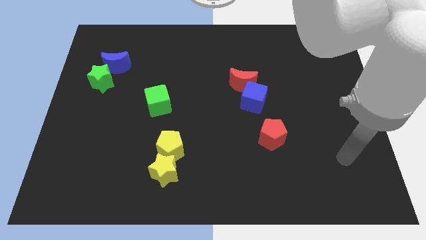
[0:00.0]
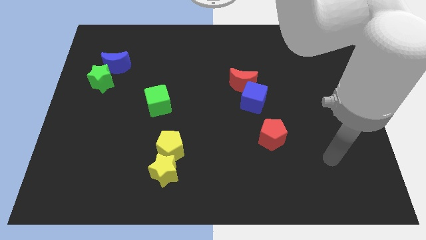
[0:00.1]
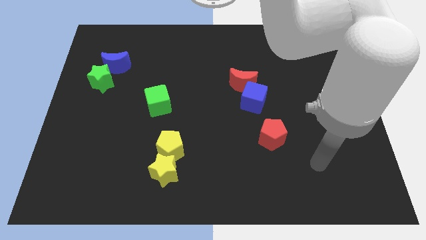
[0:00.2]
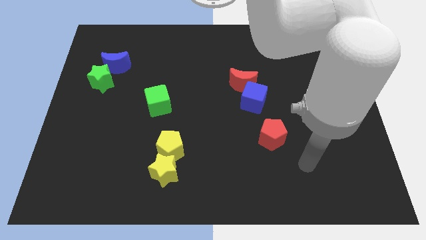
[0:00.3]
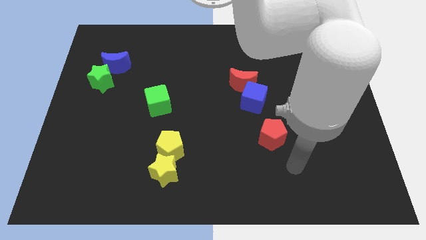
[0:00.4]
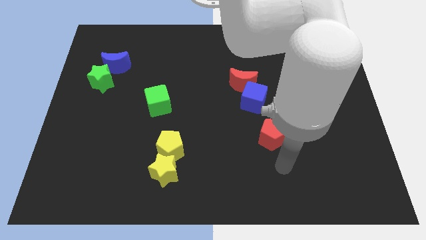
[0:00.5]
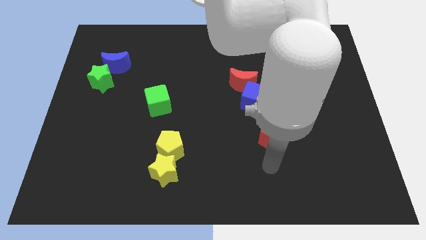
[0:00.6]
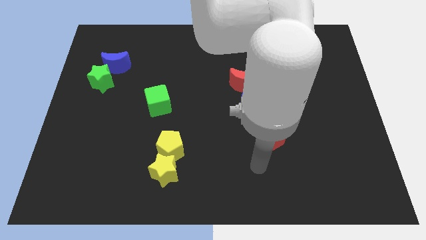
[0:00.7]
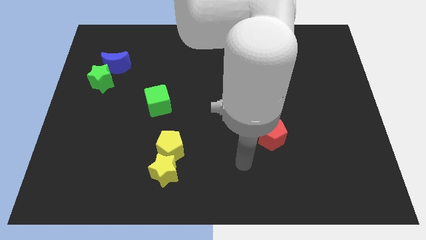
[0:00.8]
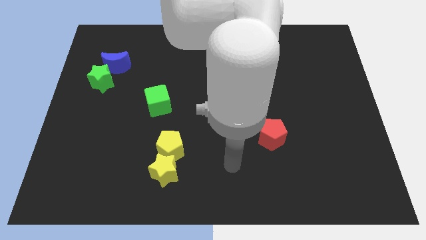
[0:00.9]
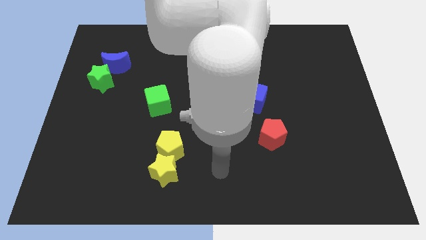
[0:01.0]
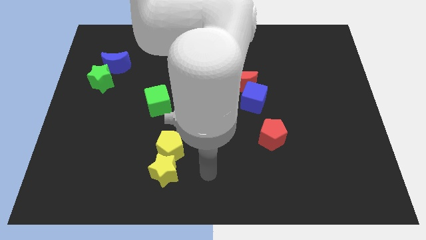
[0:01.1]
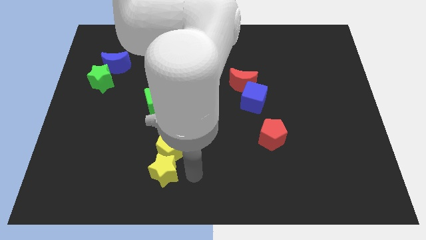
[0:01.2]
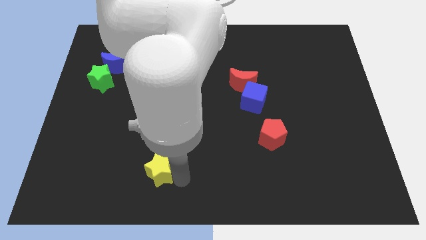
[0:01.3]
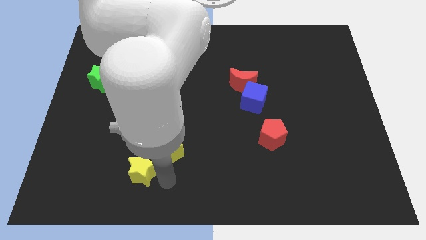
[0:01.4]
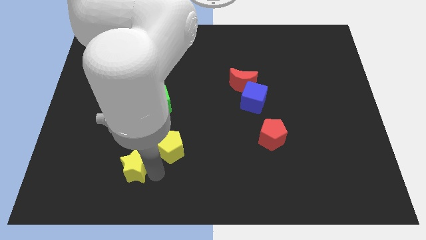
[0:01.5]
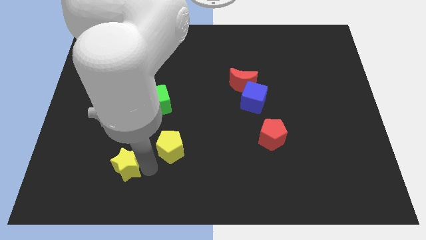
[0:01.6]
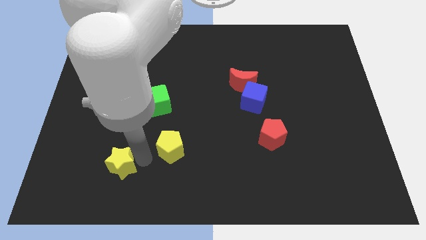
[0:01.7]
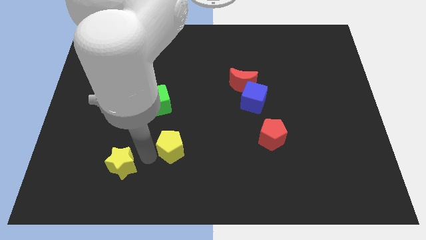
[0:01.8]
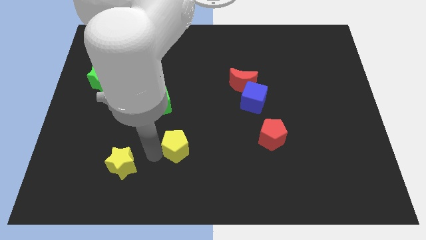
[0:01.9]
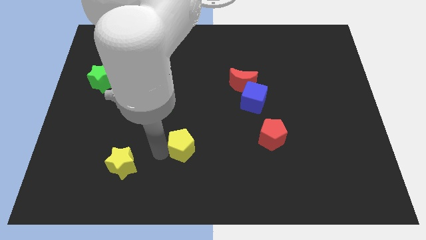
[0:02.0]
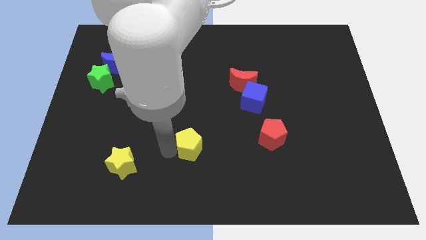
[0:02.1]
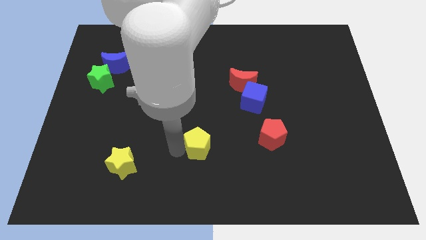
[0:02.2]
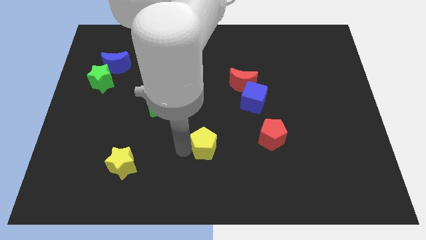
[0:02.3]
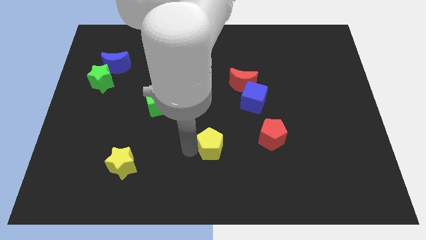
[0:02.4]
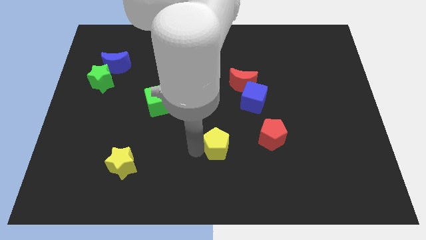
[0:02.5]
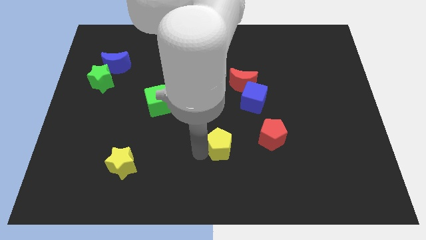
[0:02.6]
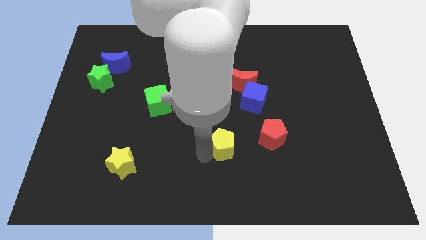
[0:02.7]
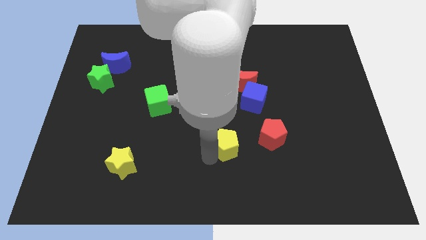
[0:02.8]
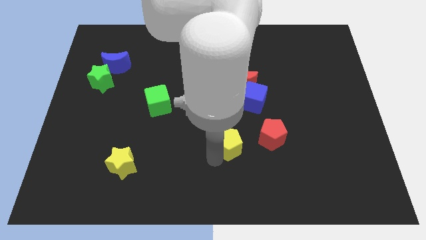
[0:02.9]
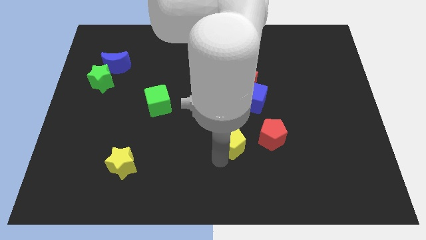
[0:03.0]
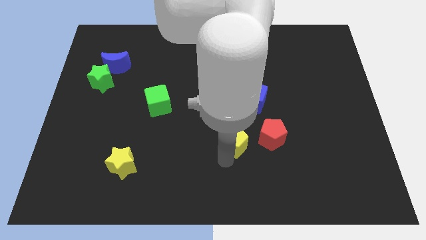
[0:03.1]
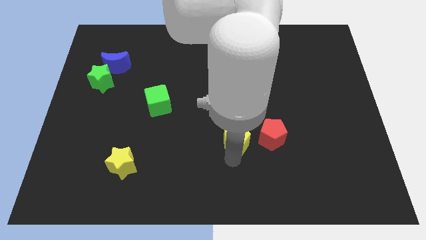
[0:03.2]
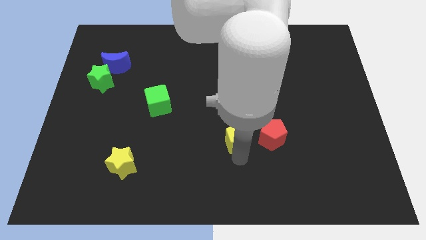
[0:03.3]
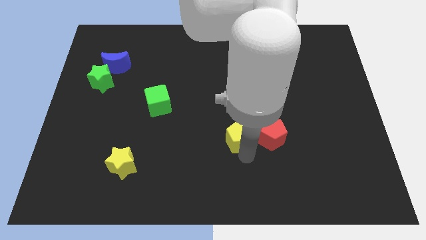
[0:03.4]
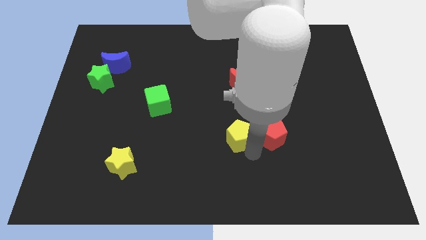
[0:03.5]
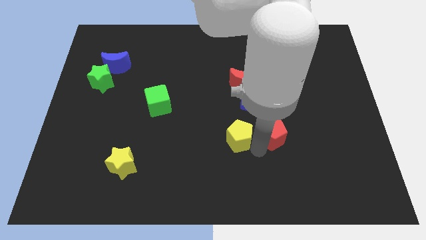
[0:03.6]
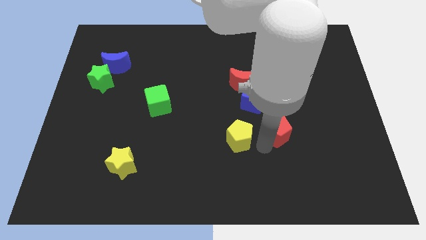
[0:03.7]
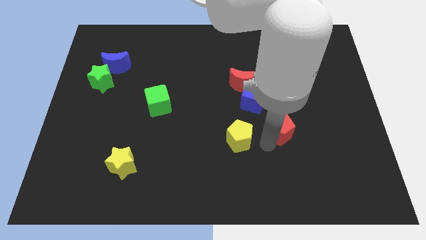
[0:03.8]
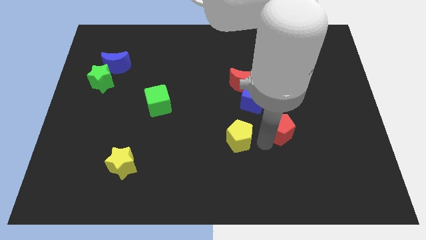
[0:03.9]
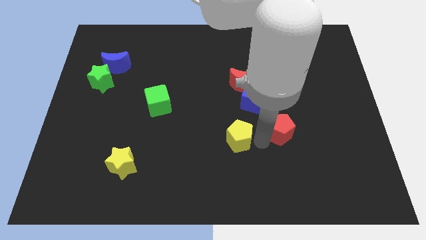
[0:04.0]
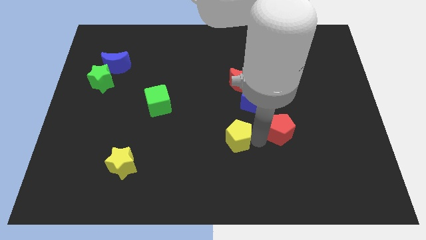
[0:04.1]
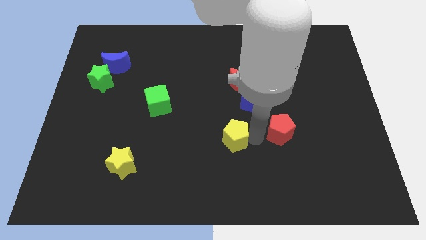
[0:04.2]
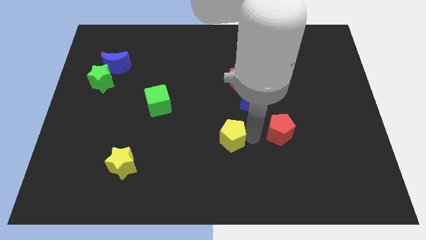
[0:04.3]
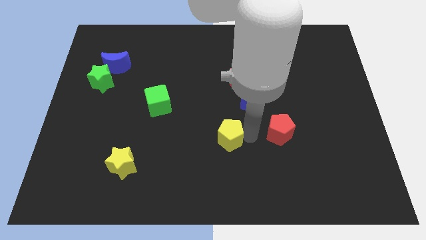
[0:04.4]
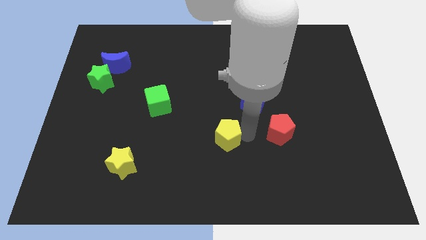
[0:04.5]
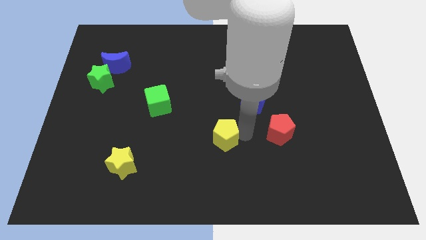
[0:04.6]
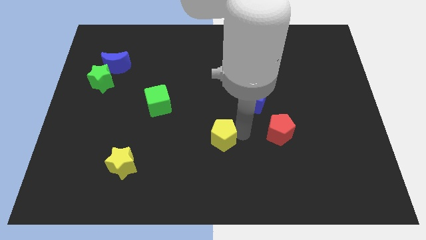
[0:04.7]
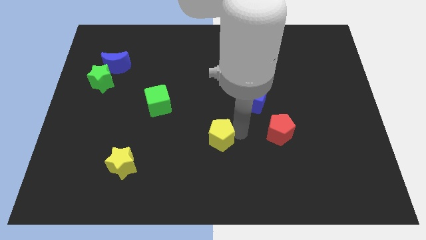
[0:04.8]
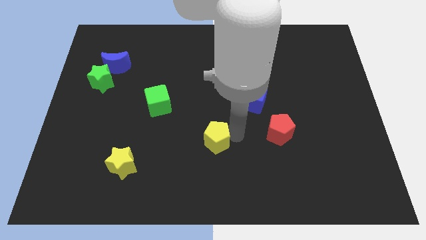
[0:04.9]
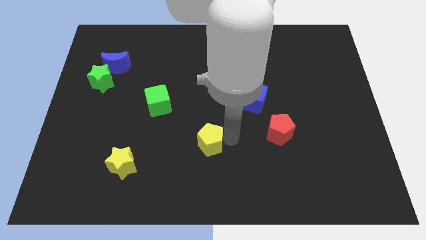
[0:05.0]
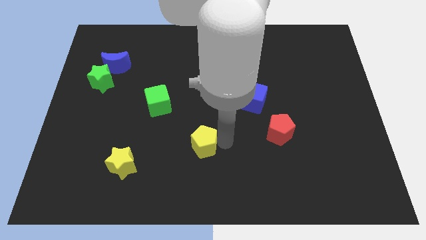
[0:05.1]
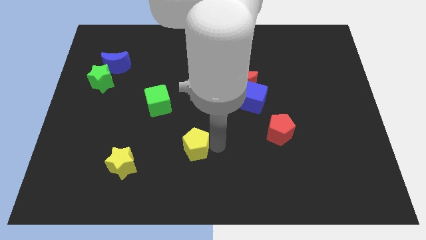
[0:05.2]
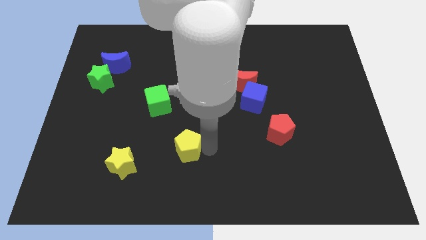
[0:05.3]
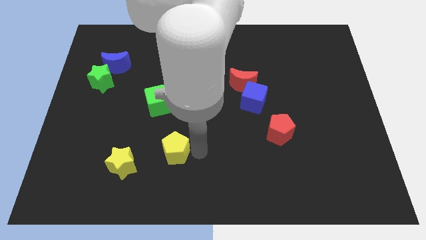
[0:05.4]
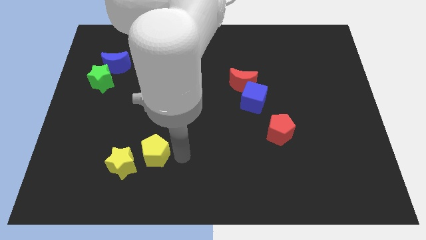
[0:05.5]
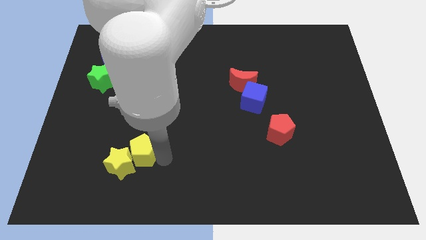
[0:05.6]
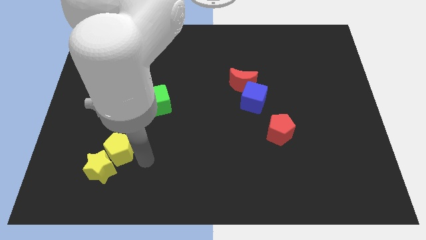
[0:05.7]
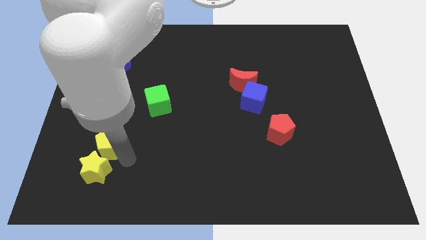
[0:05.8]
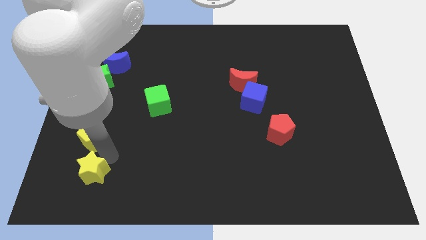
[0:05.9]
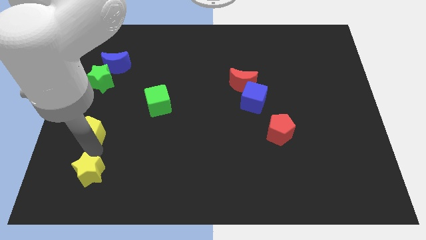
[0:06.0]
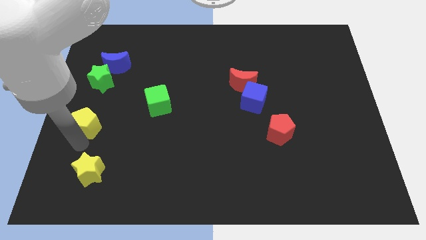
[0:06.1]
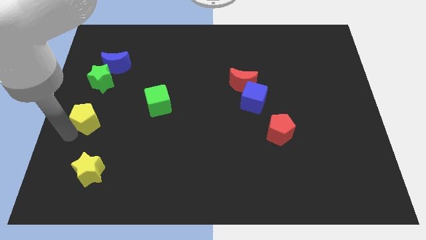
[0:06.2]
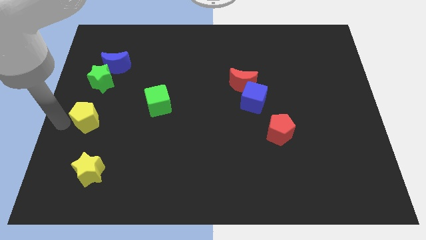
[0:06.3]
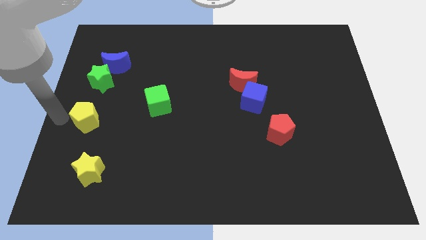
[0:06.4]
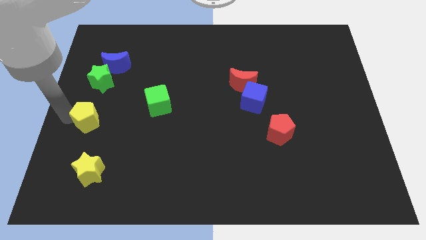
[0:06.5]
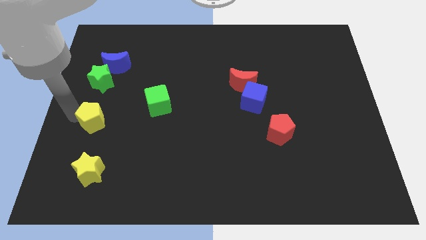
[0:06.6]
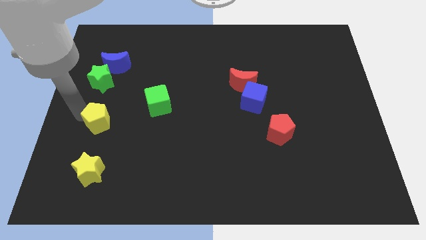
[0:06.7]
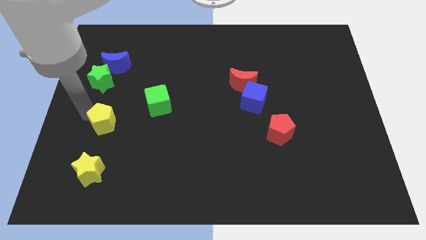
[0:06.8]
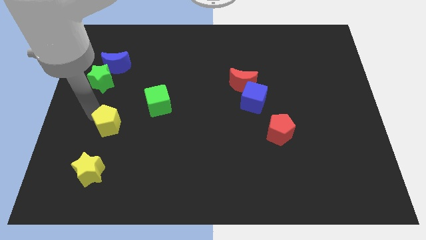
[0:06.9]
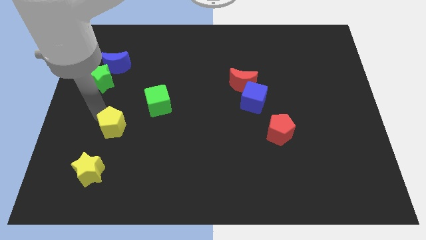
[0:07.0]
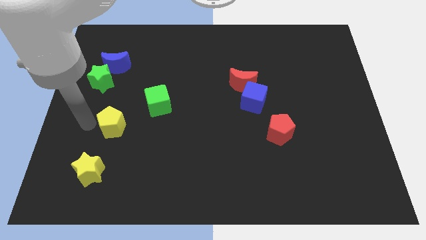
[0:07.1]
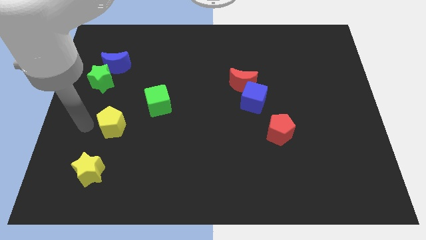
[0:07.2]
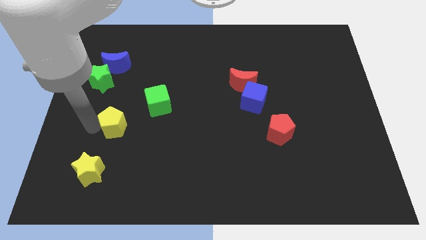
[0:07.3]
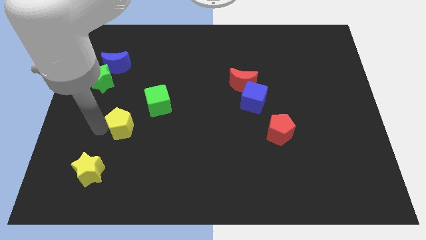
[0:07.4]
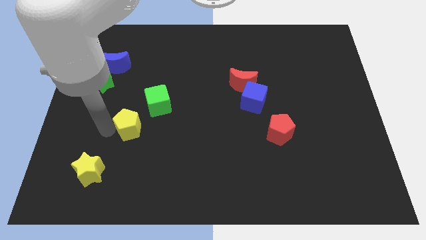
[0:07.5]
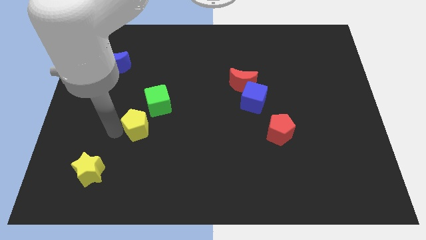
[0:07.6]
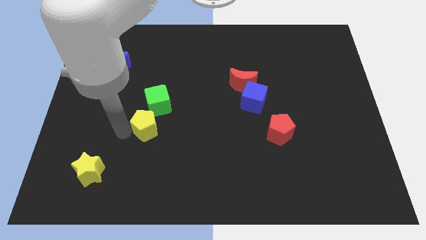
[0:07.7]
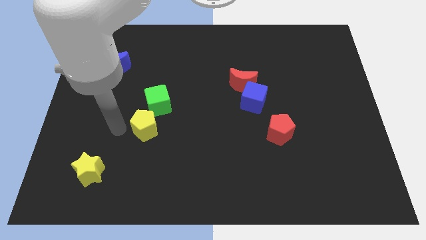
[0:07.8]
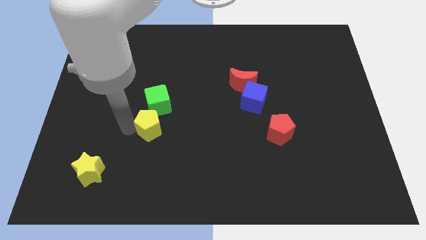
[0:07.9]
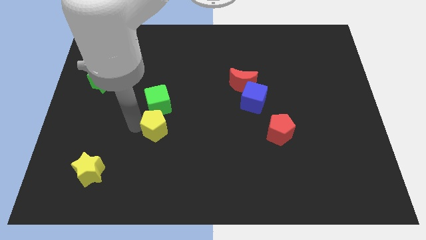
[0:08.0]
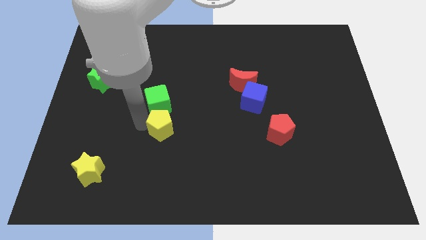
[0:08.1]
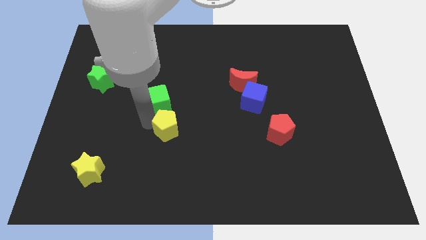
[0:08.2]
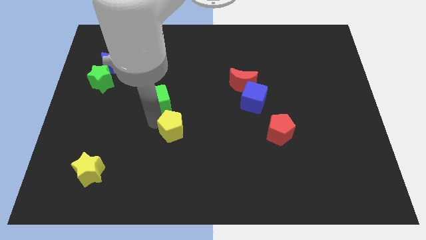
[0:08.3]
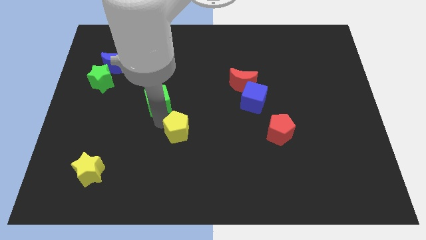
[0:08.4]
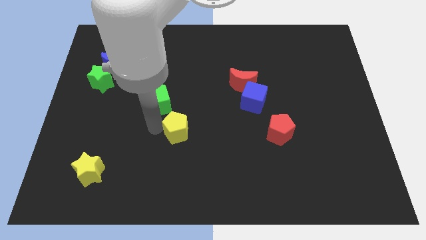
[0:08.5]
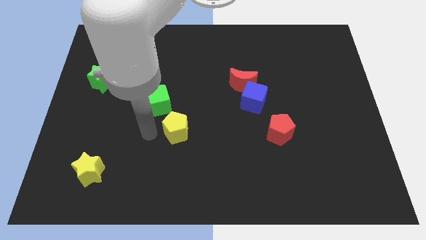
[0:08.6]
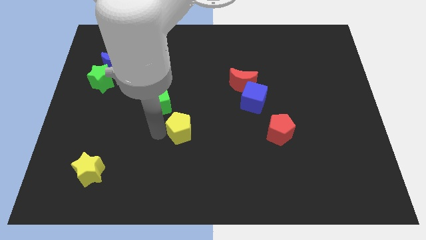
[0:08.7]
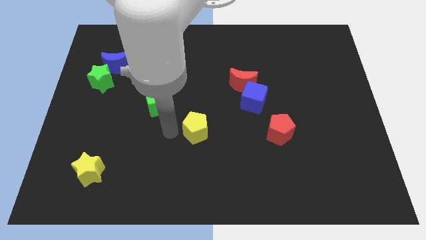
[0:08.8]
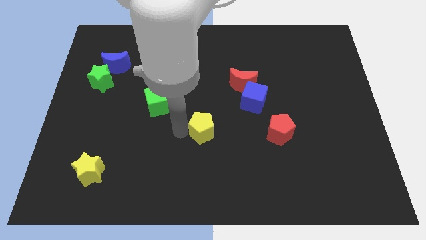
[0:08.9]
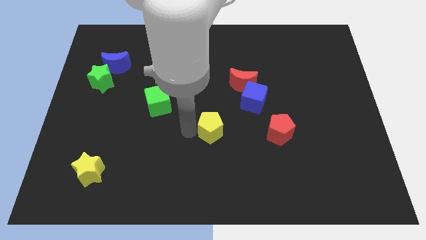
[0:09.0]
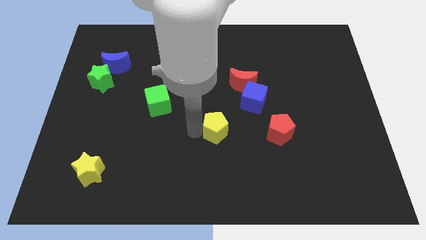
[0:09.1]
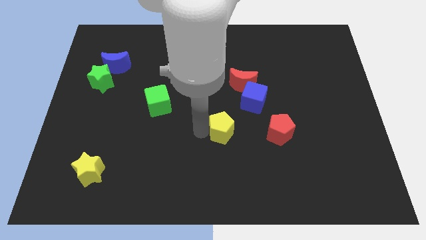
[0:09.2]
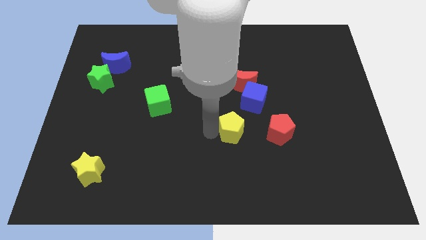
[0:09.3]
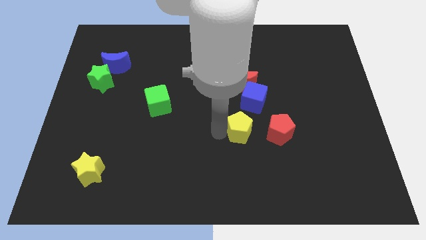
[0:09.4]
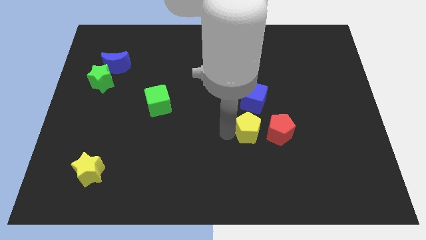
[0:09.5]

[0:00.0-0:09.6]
push the yellow pentagon to the top left of the red pentagon
